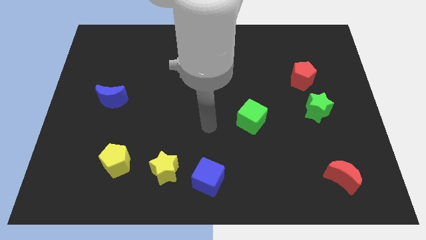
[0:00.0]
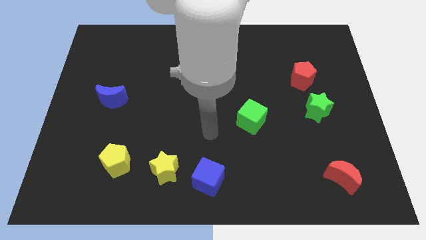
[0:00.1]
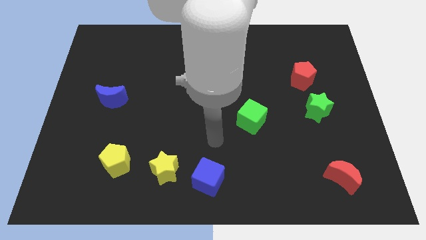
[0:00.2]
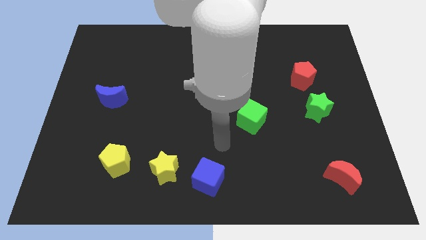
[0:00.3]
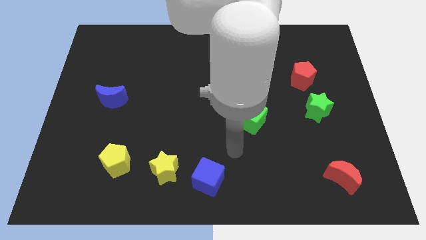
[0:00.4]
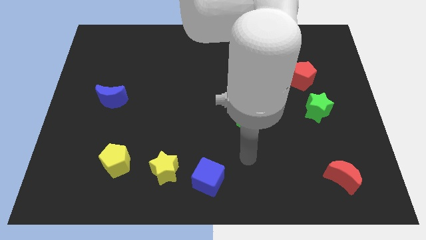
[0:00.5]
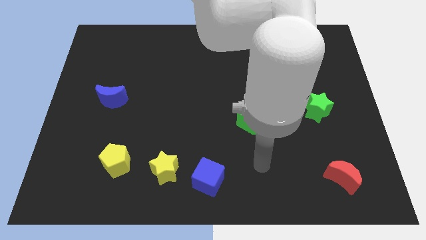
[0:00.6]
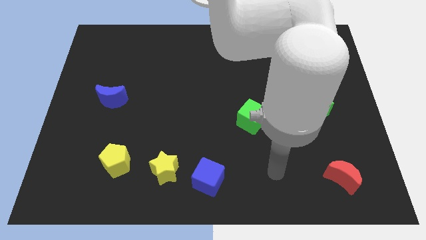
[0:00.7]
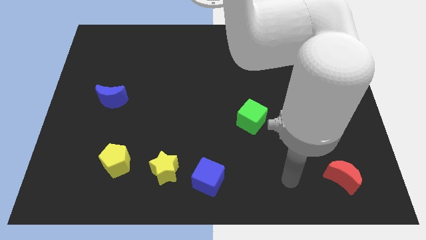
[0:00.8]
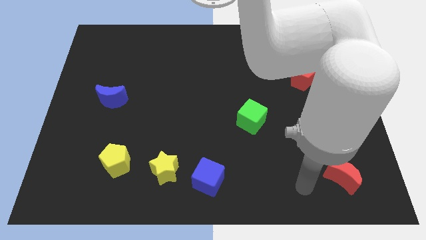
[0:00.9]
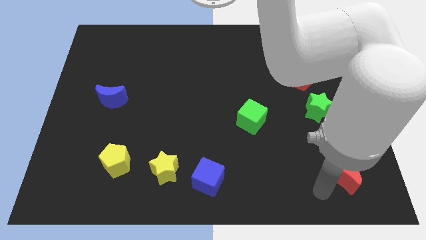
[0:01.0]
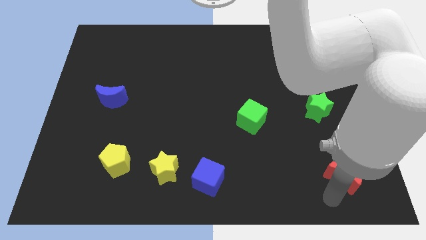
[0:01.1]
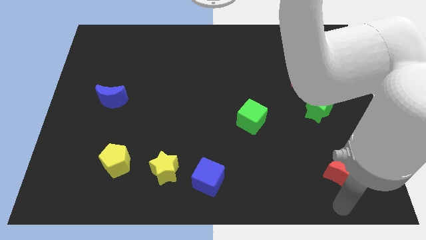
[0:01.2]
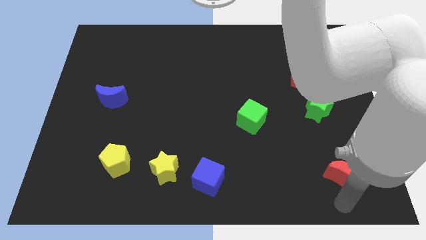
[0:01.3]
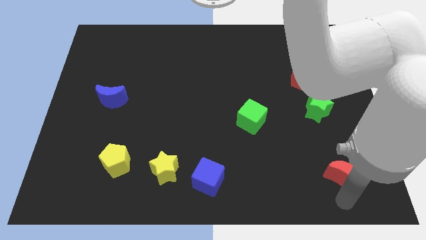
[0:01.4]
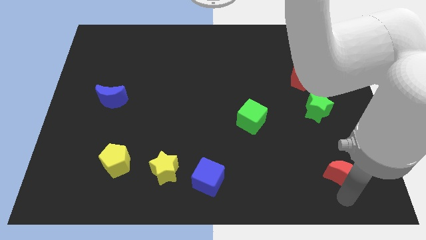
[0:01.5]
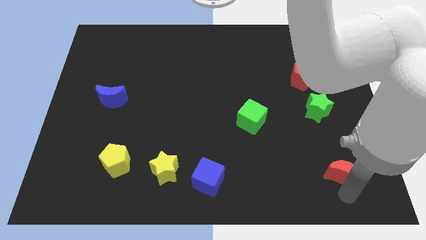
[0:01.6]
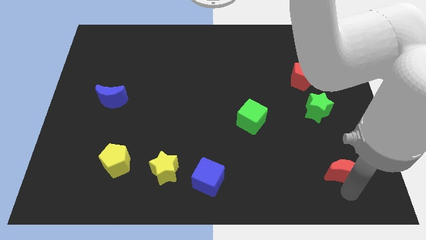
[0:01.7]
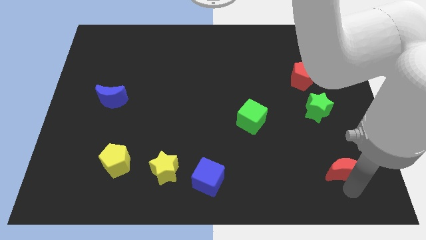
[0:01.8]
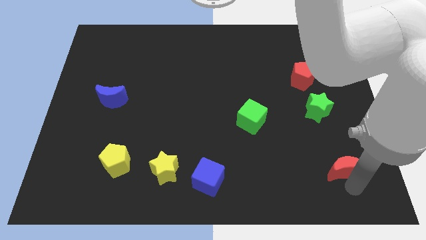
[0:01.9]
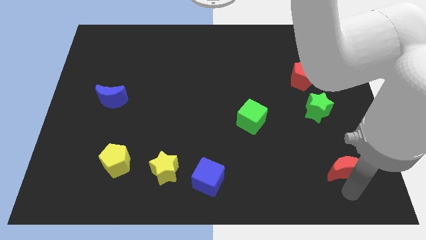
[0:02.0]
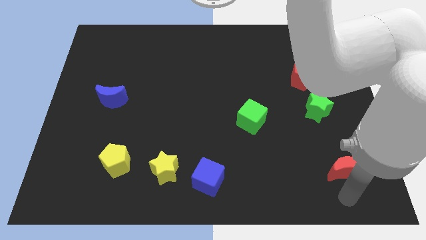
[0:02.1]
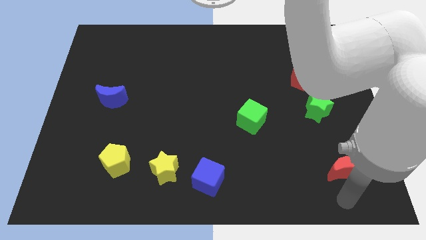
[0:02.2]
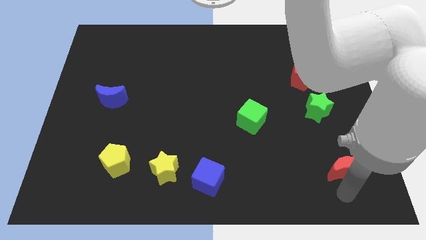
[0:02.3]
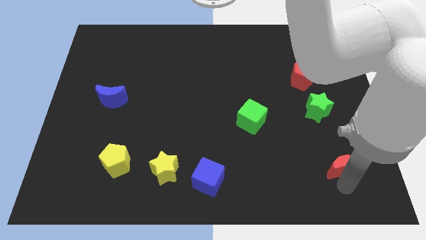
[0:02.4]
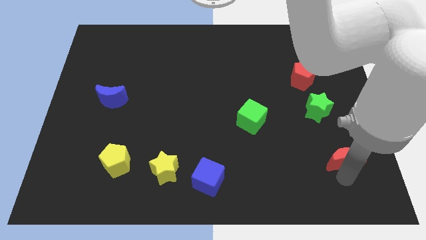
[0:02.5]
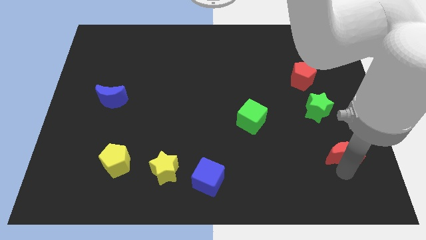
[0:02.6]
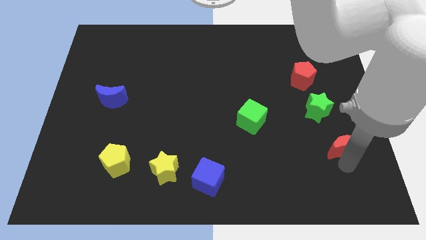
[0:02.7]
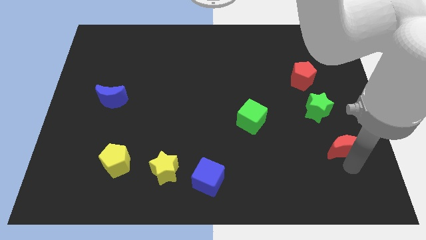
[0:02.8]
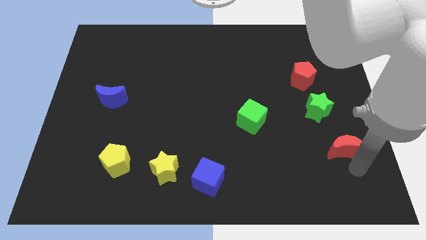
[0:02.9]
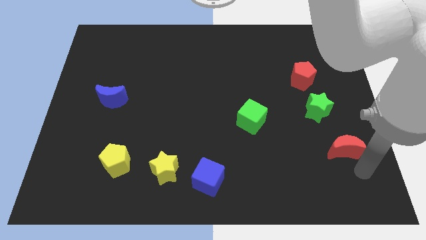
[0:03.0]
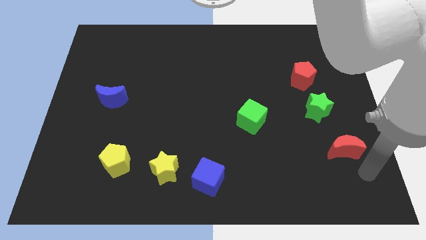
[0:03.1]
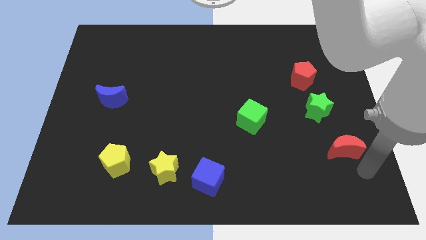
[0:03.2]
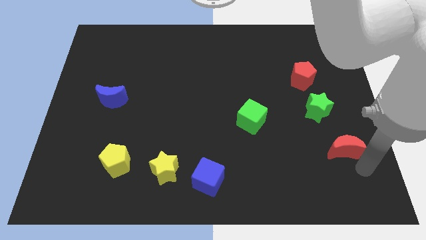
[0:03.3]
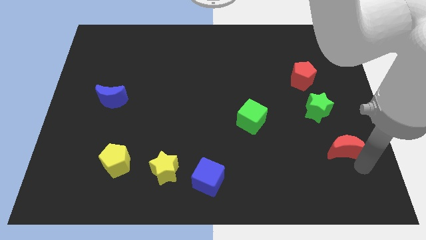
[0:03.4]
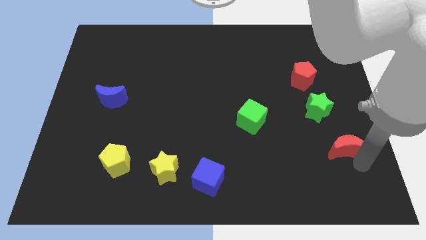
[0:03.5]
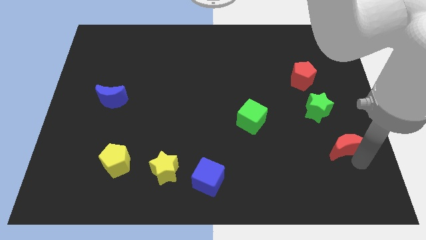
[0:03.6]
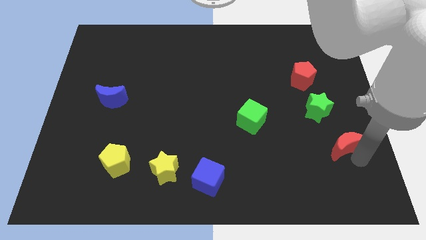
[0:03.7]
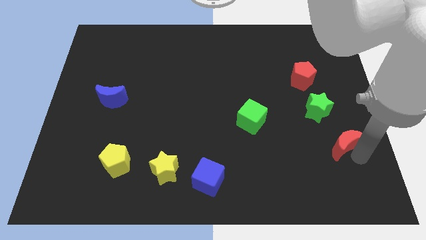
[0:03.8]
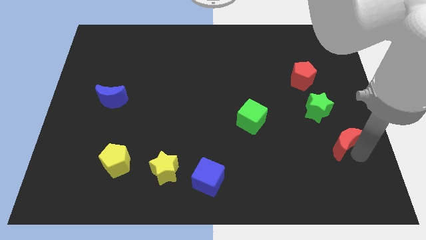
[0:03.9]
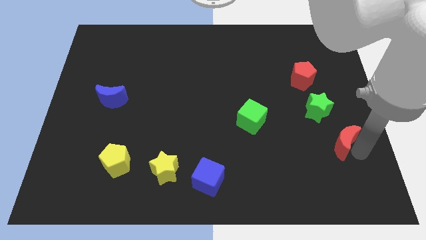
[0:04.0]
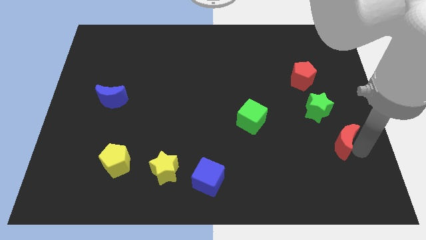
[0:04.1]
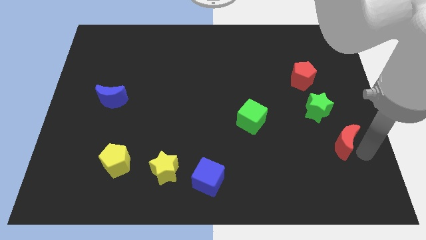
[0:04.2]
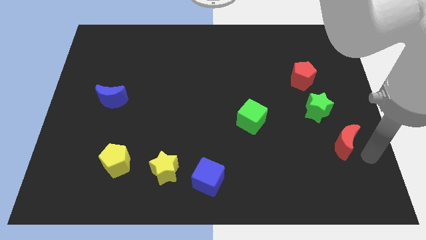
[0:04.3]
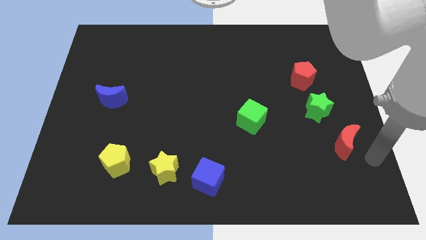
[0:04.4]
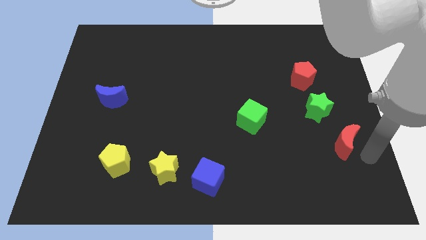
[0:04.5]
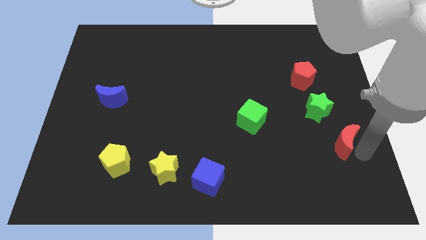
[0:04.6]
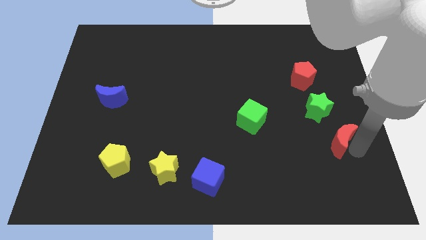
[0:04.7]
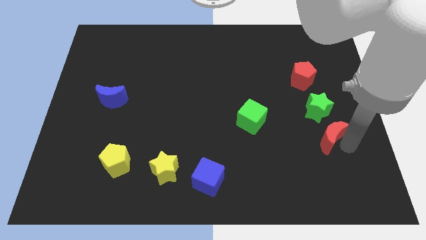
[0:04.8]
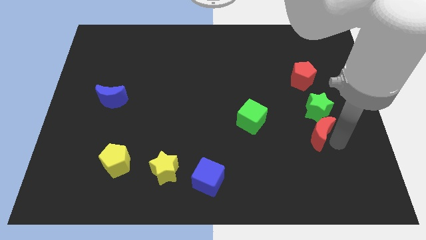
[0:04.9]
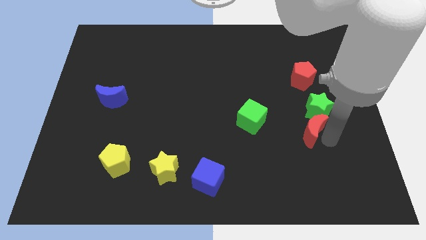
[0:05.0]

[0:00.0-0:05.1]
move the red moon to the right side of the green cube

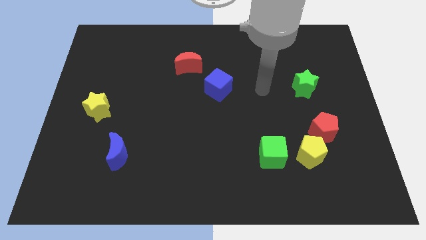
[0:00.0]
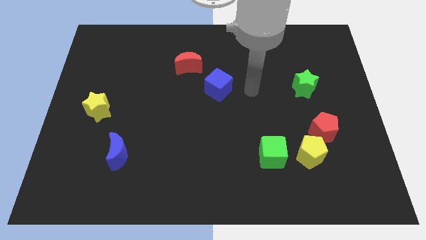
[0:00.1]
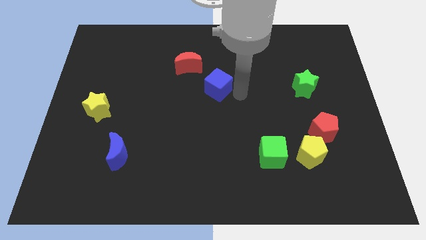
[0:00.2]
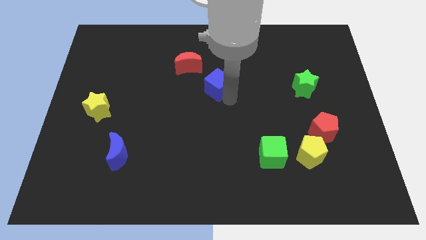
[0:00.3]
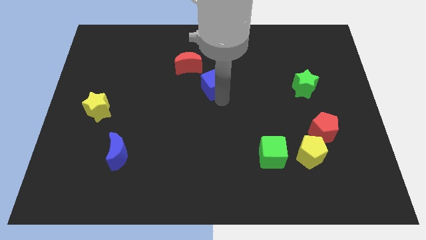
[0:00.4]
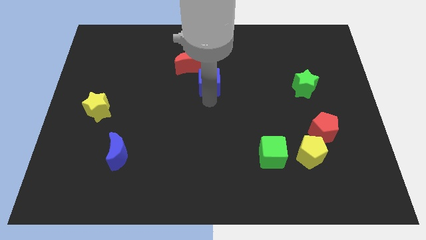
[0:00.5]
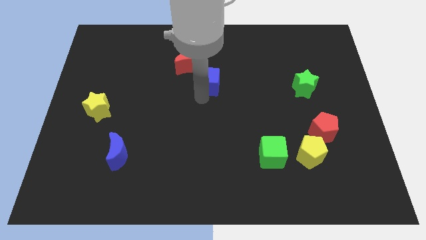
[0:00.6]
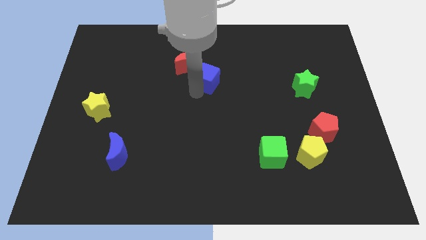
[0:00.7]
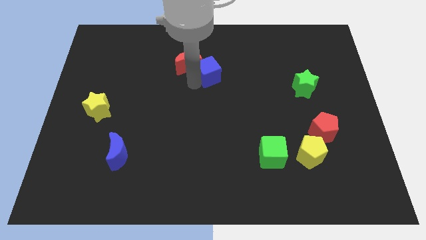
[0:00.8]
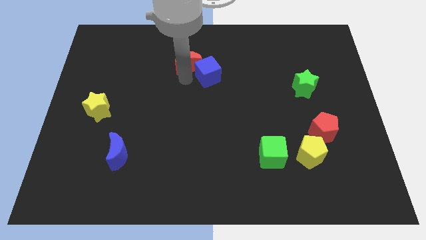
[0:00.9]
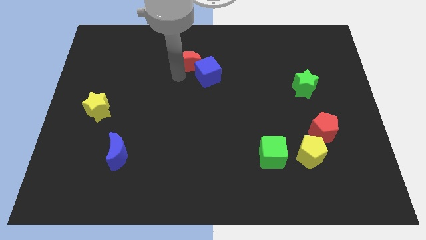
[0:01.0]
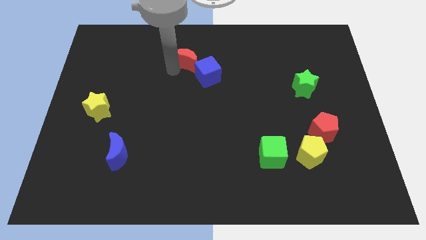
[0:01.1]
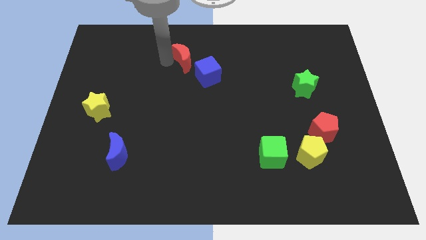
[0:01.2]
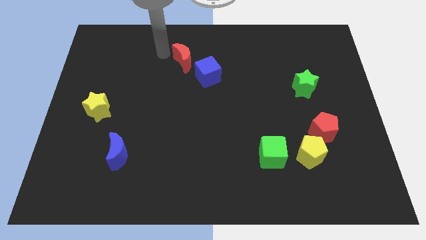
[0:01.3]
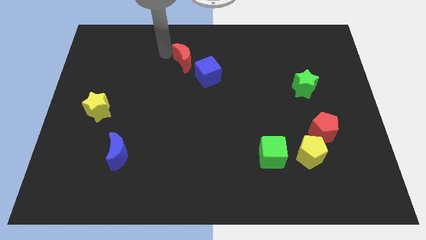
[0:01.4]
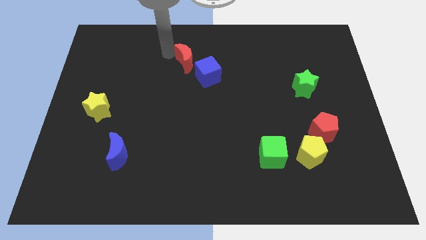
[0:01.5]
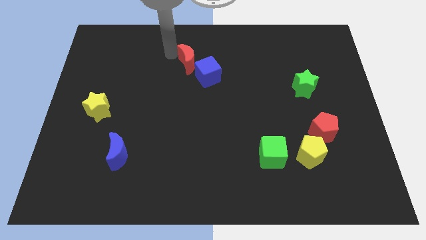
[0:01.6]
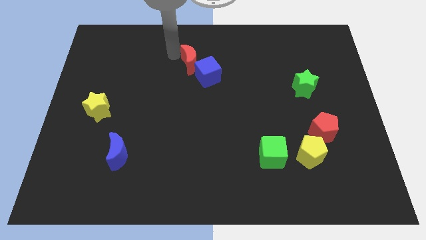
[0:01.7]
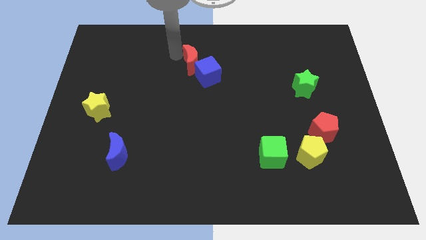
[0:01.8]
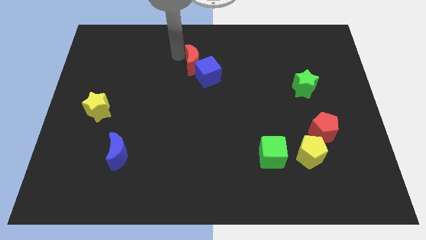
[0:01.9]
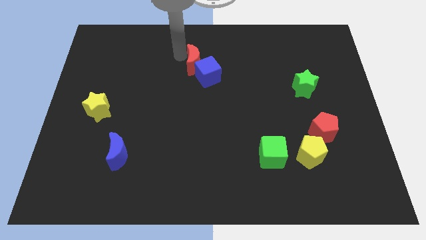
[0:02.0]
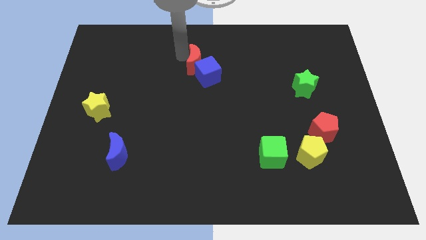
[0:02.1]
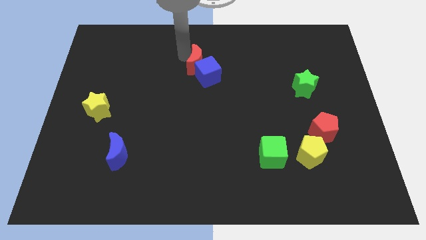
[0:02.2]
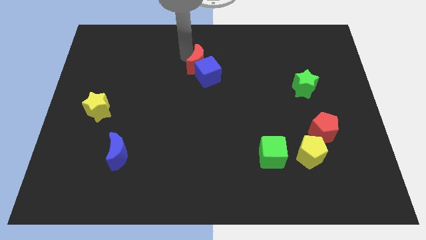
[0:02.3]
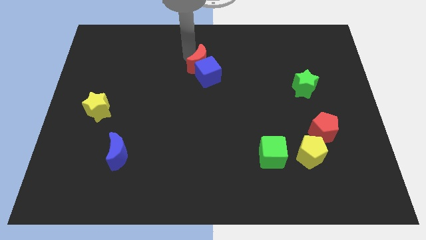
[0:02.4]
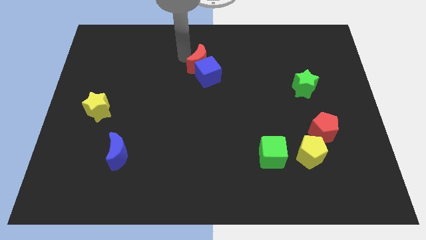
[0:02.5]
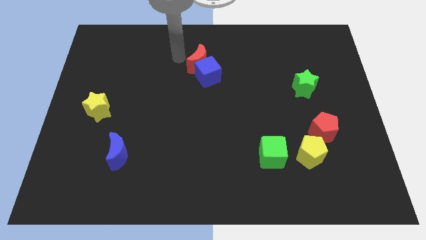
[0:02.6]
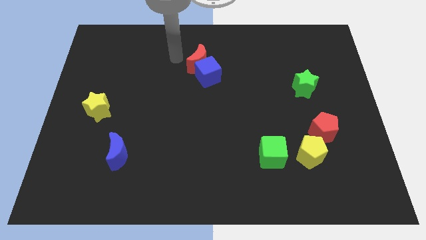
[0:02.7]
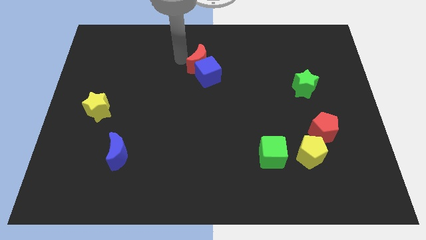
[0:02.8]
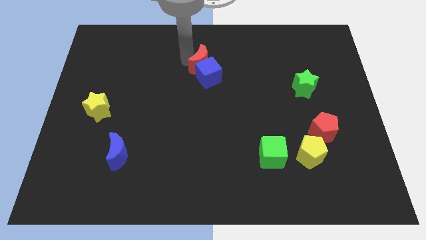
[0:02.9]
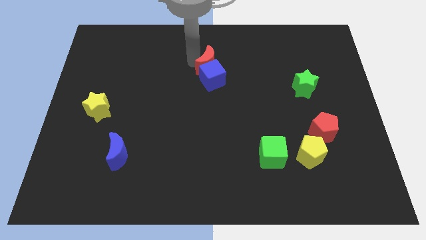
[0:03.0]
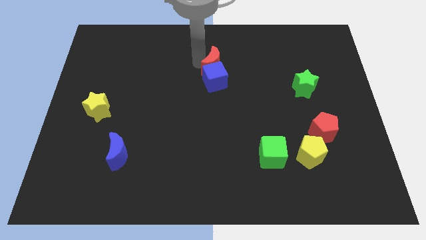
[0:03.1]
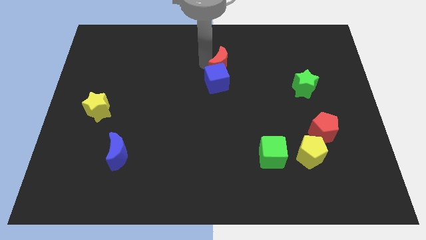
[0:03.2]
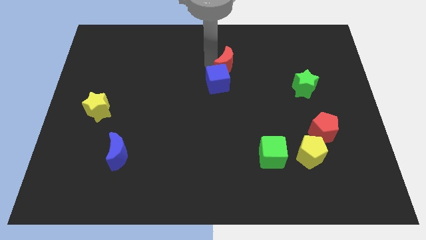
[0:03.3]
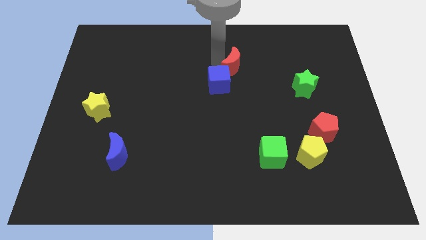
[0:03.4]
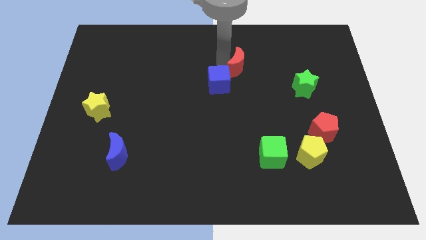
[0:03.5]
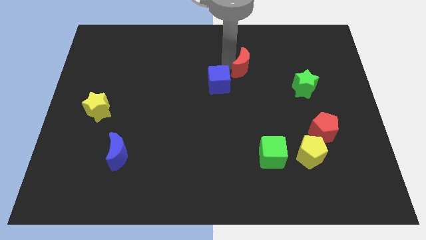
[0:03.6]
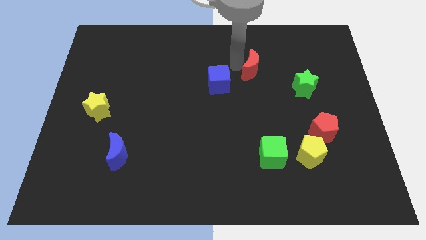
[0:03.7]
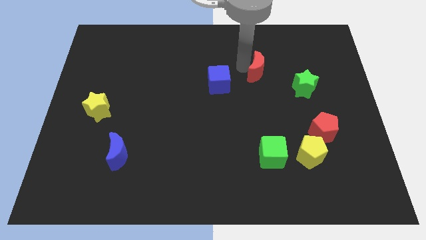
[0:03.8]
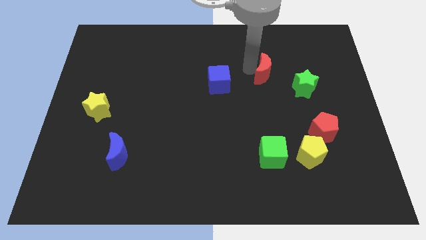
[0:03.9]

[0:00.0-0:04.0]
move the red moon to the top left of the green star
